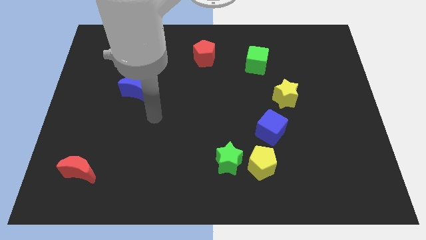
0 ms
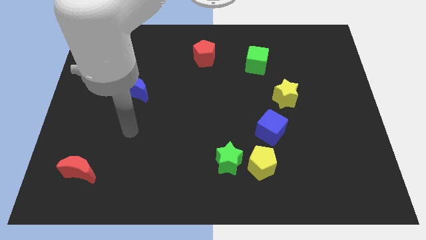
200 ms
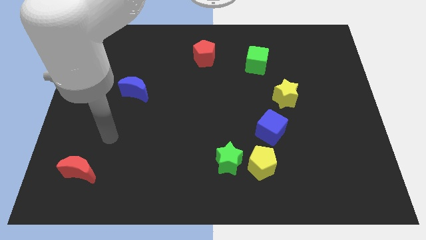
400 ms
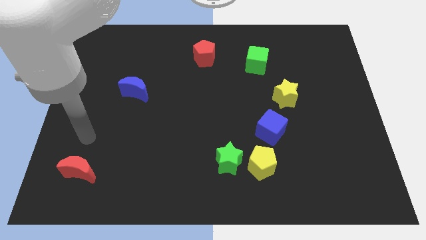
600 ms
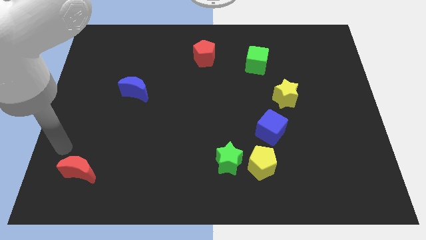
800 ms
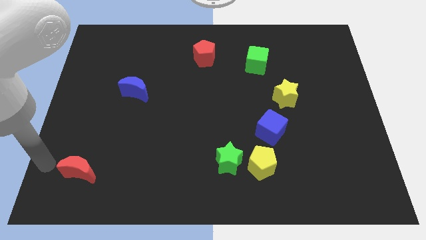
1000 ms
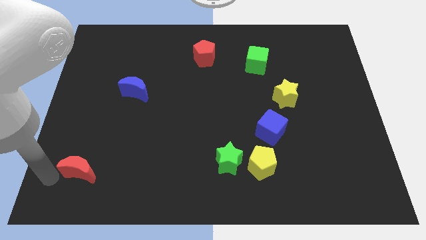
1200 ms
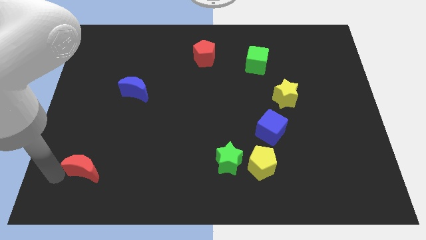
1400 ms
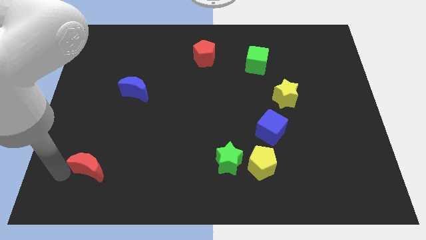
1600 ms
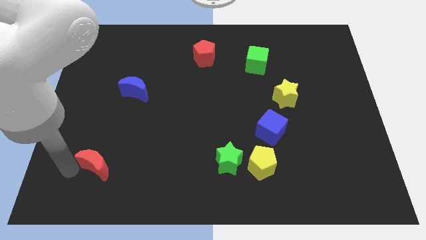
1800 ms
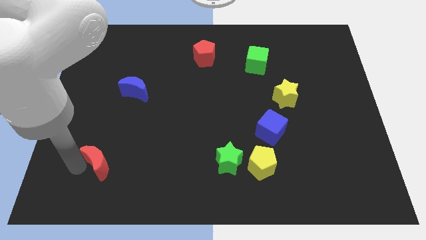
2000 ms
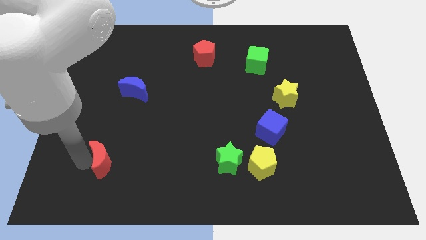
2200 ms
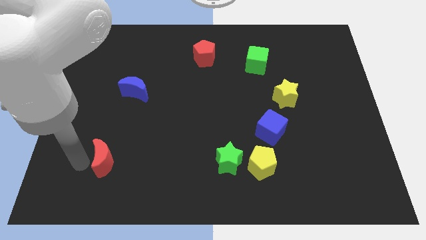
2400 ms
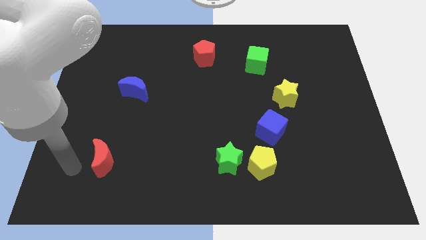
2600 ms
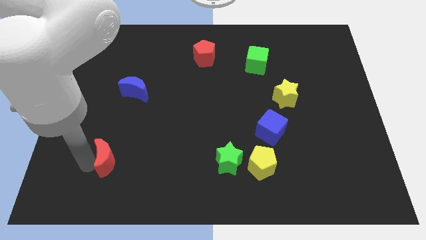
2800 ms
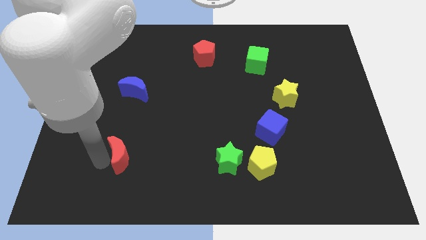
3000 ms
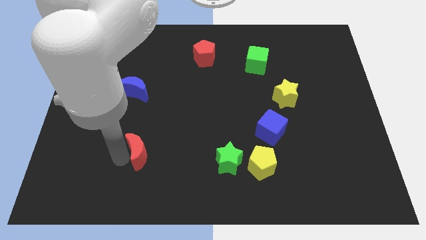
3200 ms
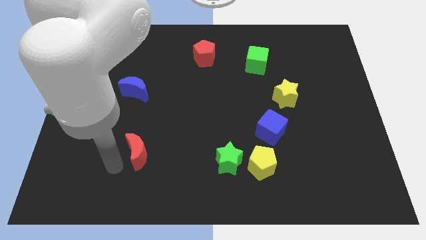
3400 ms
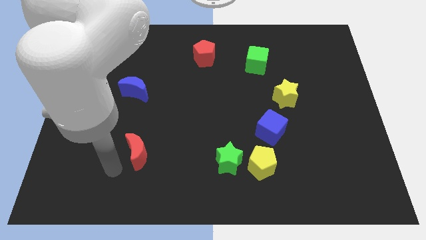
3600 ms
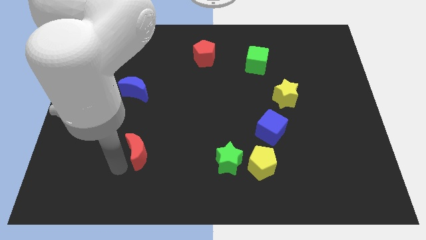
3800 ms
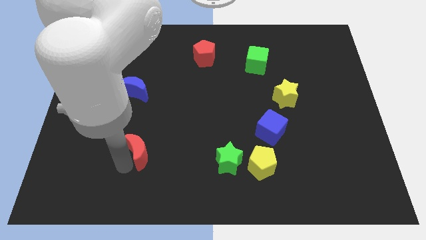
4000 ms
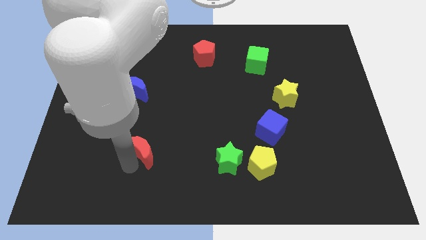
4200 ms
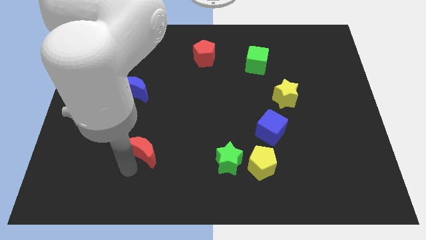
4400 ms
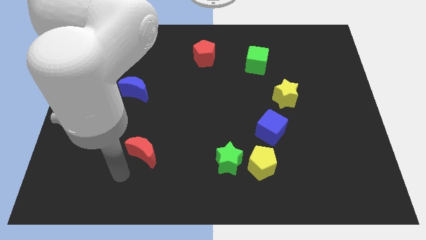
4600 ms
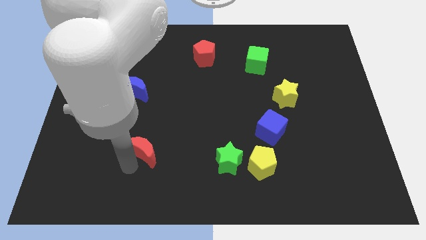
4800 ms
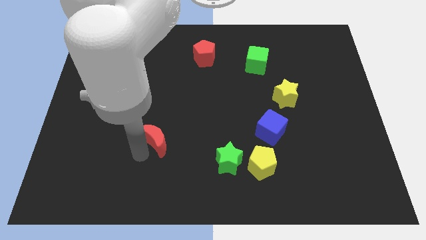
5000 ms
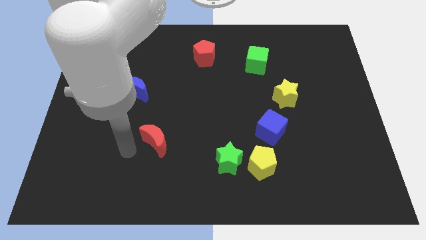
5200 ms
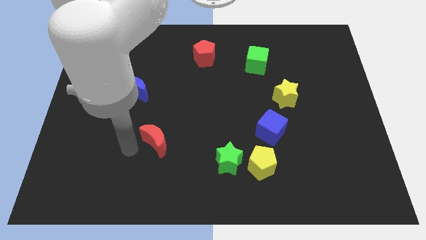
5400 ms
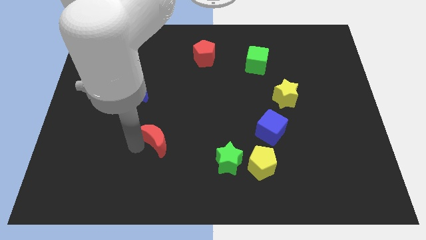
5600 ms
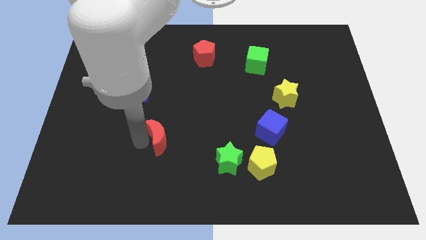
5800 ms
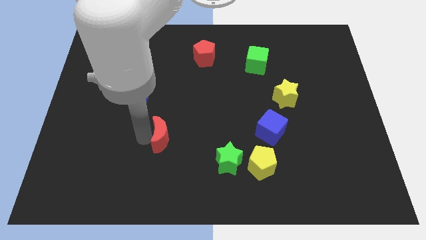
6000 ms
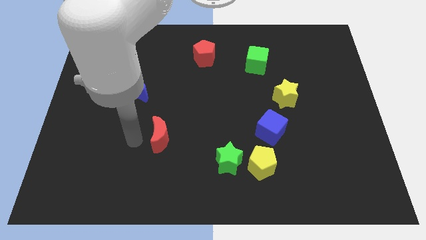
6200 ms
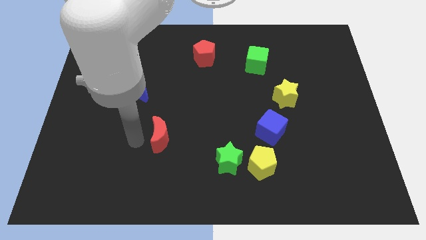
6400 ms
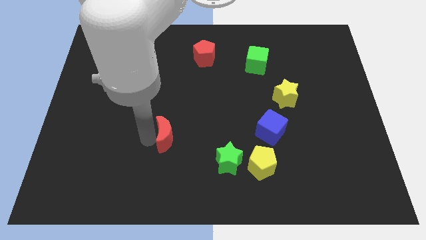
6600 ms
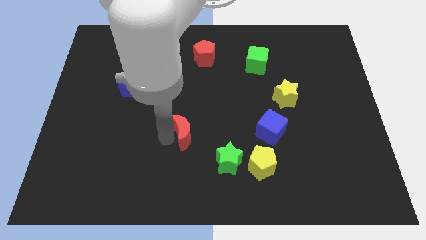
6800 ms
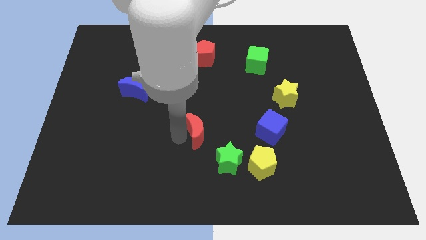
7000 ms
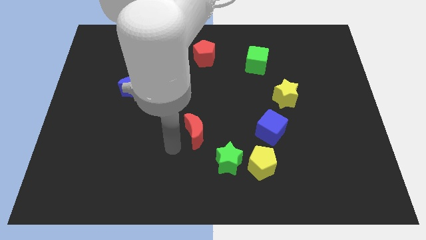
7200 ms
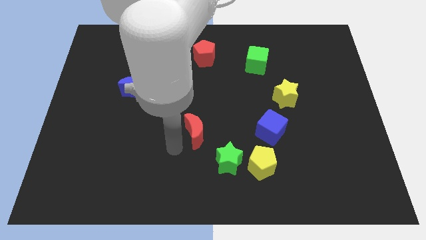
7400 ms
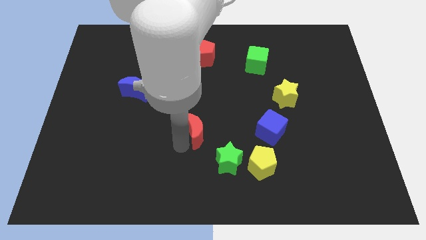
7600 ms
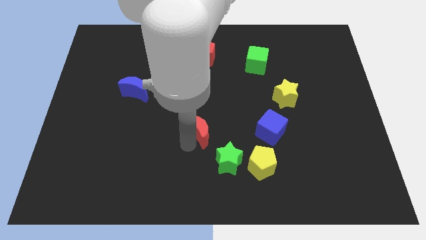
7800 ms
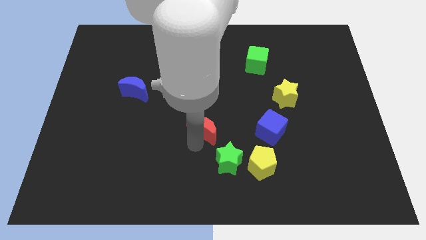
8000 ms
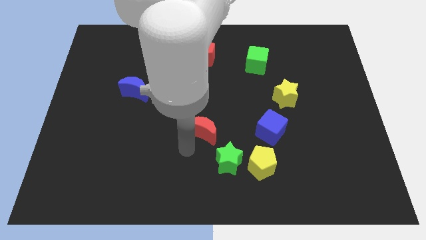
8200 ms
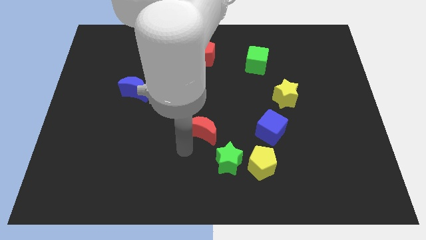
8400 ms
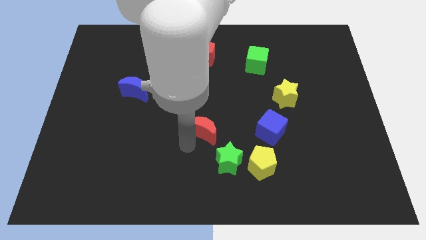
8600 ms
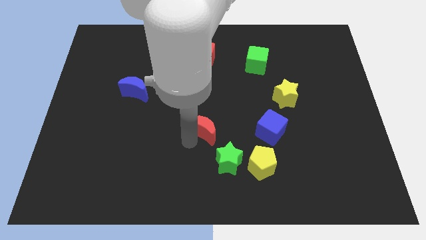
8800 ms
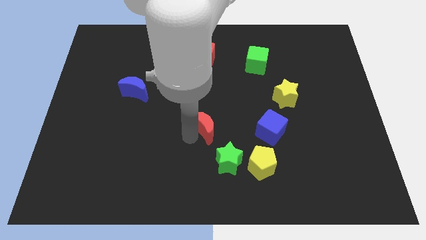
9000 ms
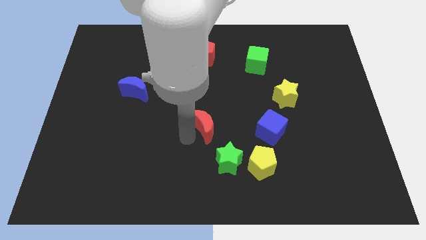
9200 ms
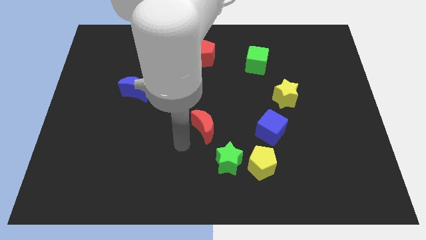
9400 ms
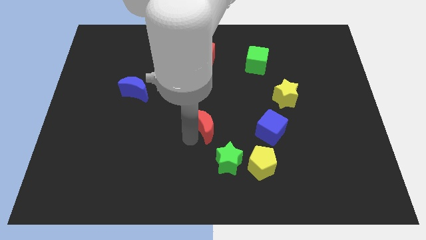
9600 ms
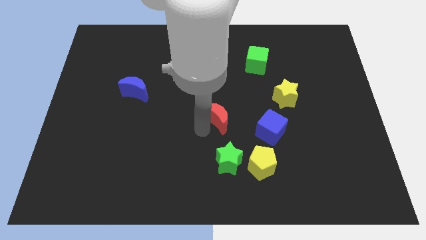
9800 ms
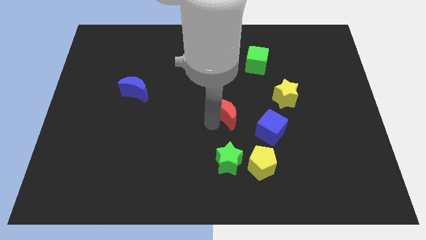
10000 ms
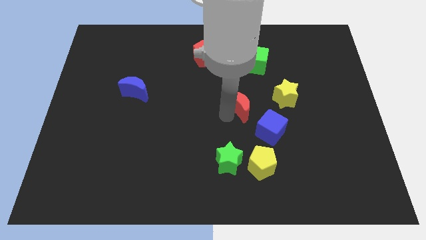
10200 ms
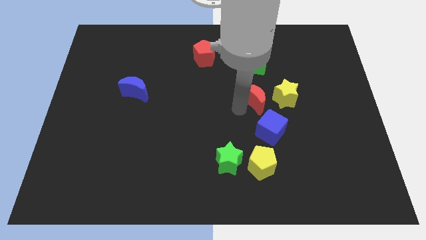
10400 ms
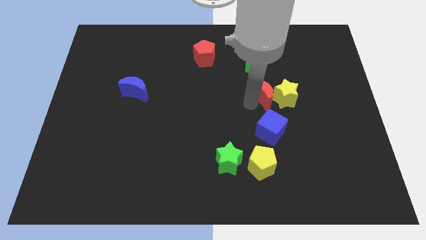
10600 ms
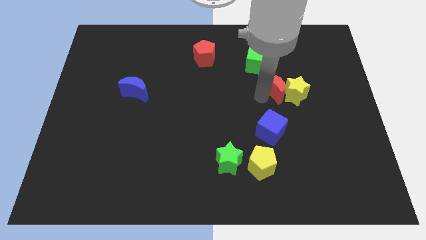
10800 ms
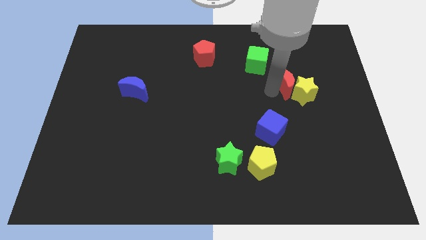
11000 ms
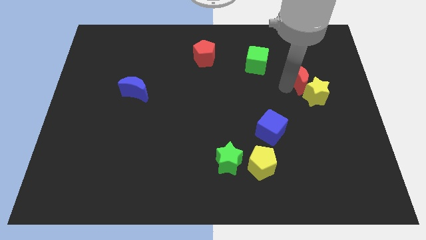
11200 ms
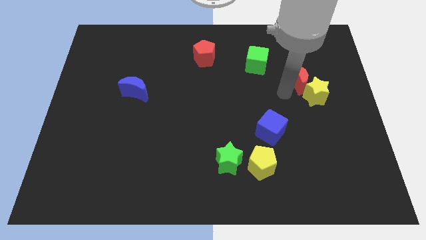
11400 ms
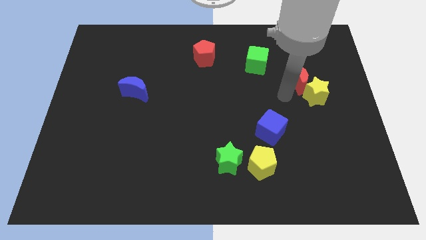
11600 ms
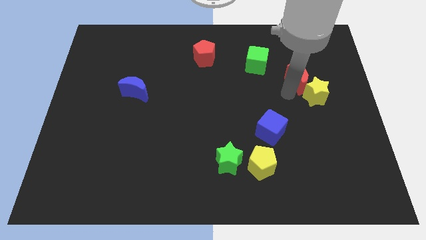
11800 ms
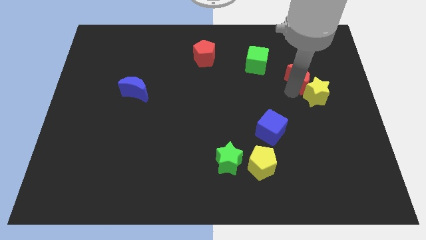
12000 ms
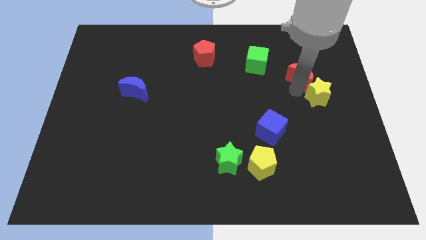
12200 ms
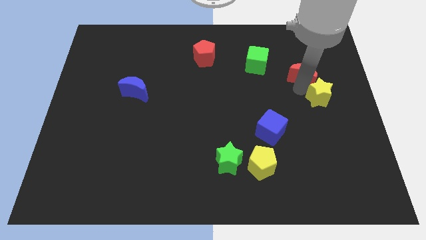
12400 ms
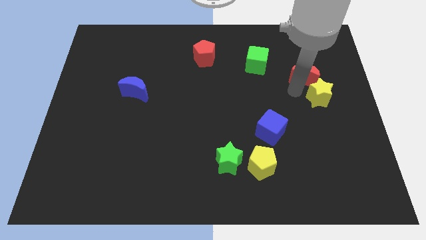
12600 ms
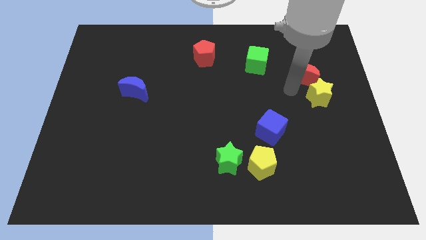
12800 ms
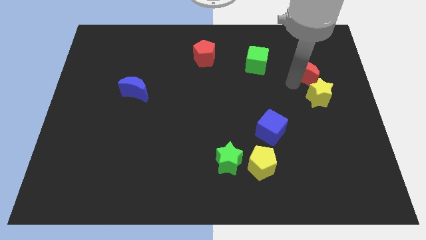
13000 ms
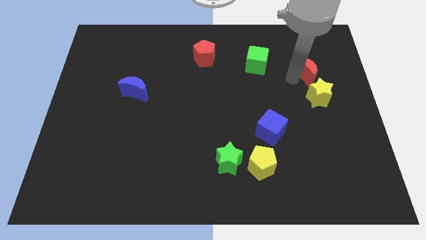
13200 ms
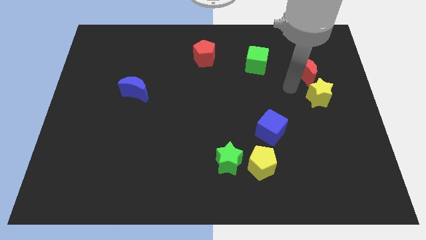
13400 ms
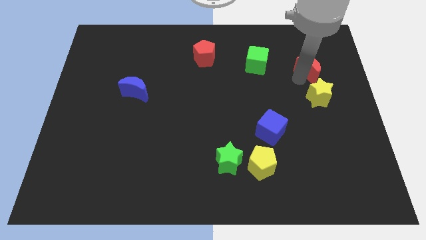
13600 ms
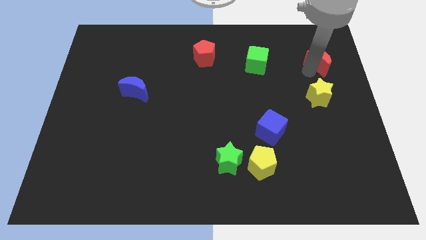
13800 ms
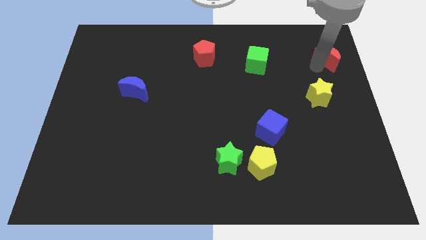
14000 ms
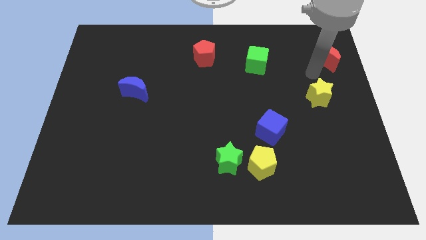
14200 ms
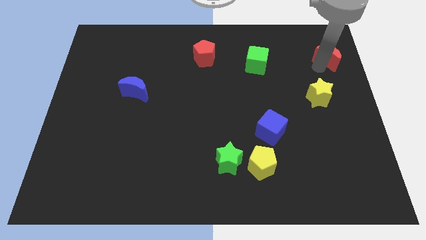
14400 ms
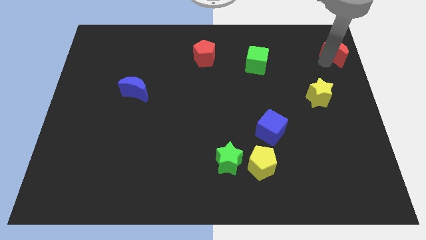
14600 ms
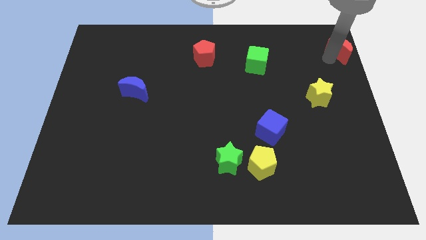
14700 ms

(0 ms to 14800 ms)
move the red moon to the upper right corner
